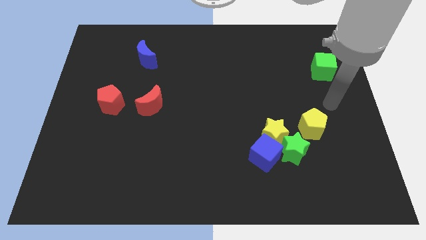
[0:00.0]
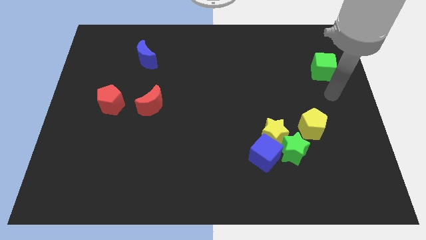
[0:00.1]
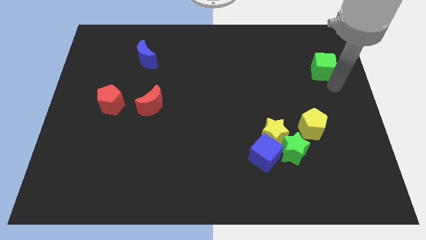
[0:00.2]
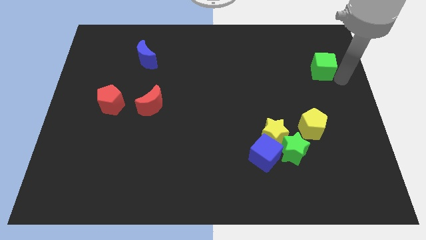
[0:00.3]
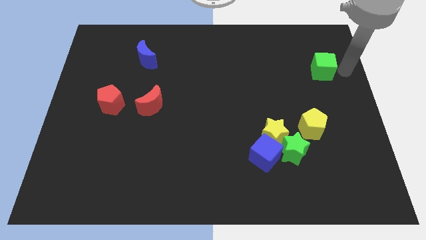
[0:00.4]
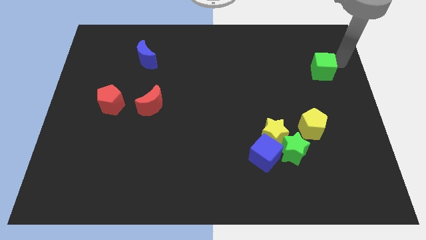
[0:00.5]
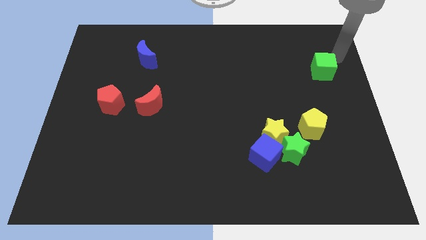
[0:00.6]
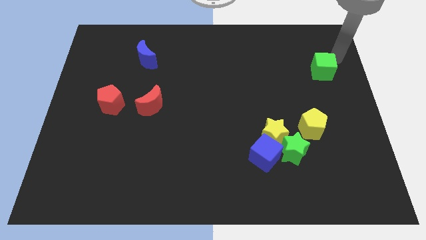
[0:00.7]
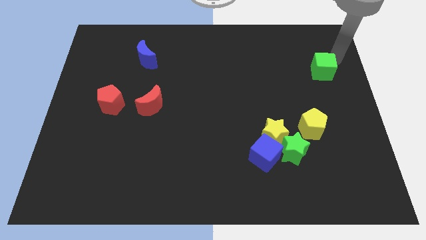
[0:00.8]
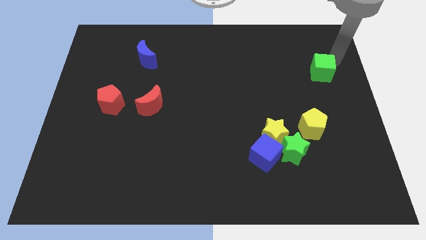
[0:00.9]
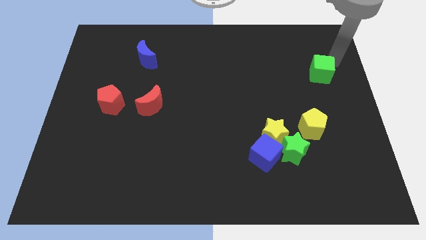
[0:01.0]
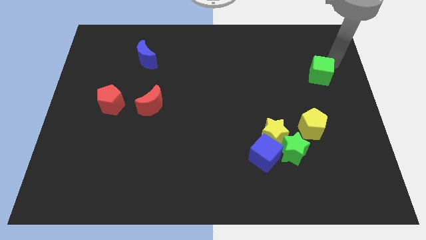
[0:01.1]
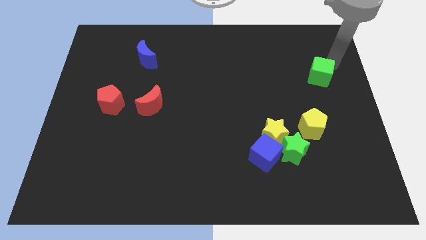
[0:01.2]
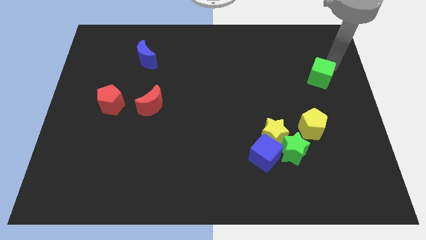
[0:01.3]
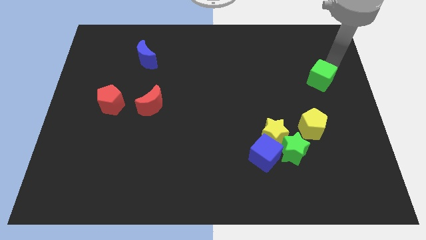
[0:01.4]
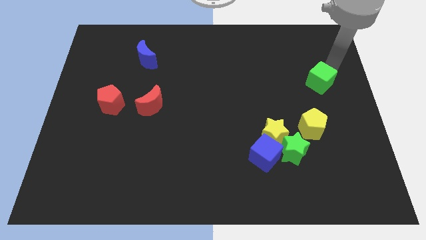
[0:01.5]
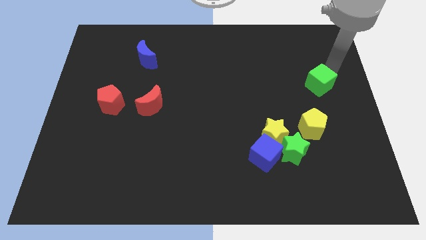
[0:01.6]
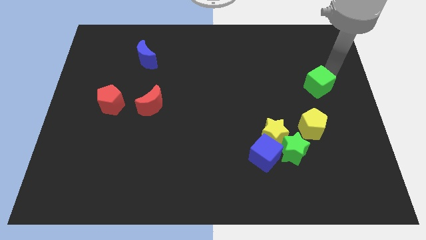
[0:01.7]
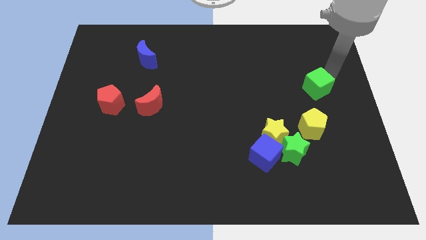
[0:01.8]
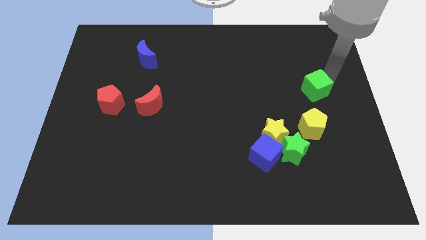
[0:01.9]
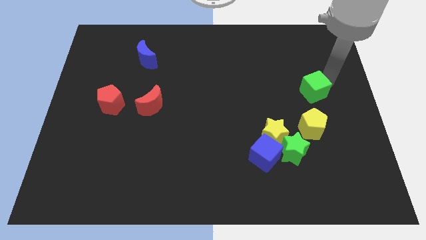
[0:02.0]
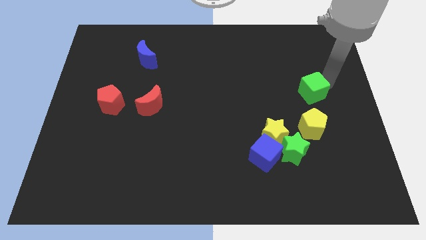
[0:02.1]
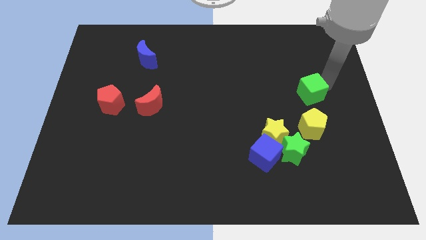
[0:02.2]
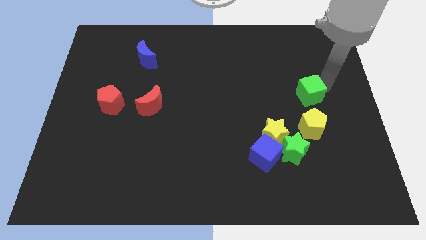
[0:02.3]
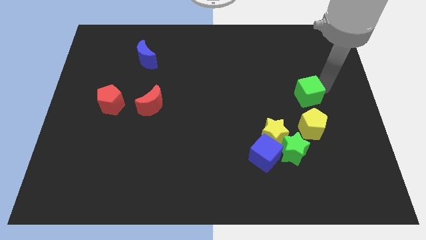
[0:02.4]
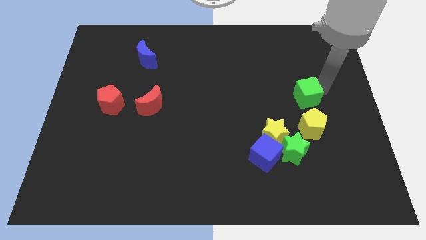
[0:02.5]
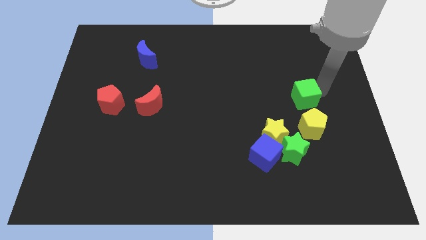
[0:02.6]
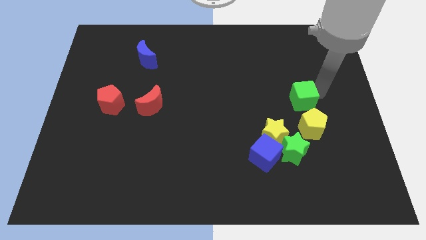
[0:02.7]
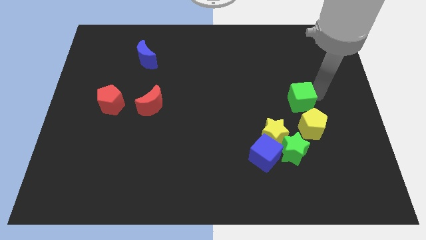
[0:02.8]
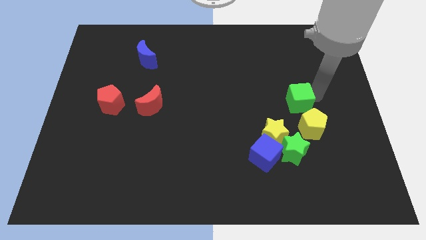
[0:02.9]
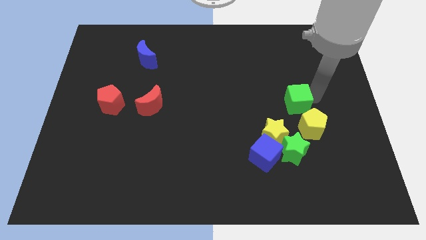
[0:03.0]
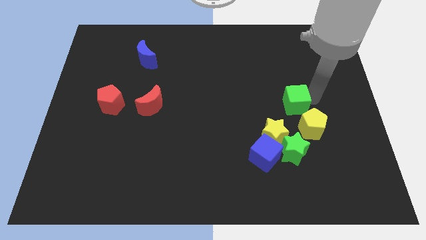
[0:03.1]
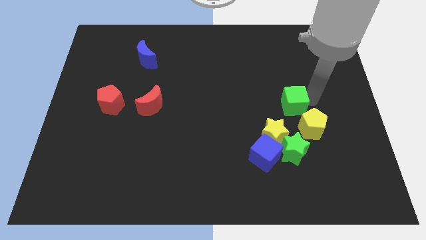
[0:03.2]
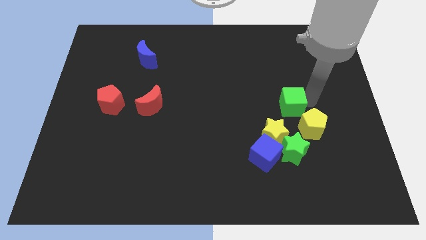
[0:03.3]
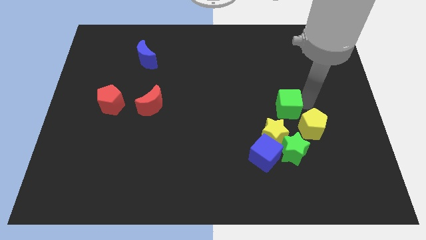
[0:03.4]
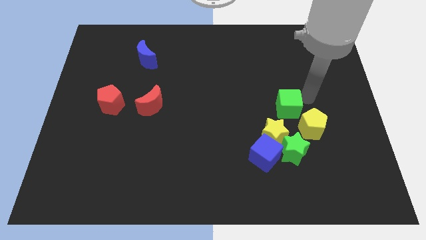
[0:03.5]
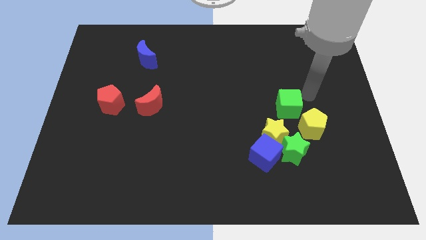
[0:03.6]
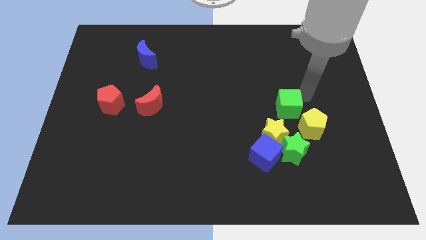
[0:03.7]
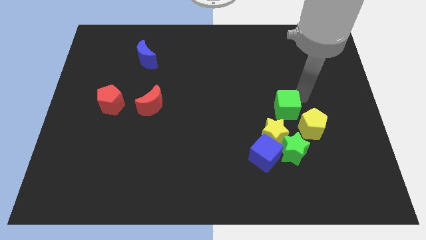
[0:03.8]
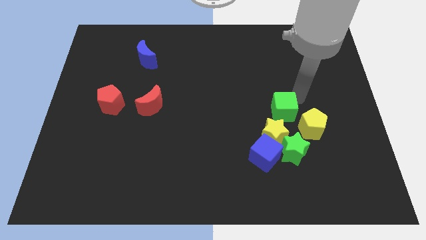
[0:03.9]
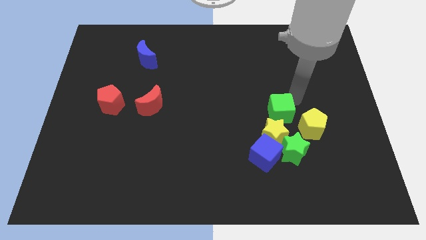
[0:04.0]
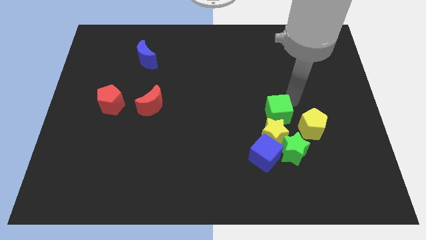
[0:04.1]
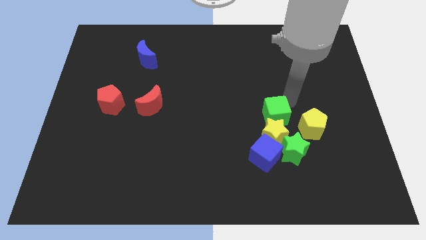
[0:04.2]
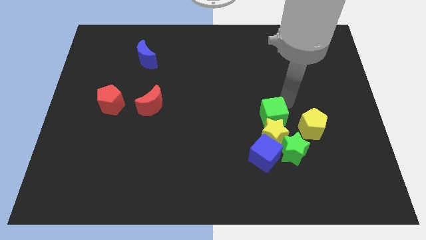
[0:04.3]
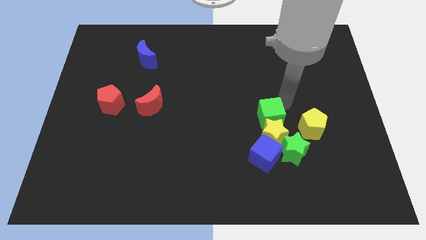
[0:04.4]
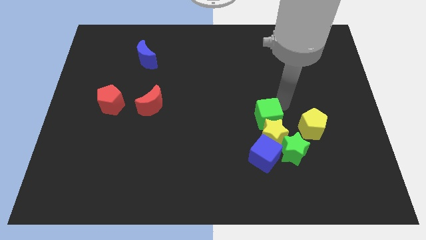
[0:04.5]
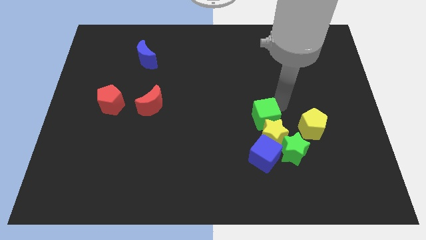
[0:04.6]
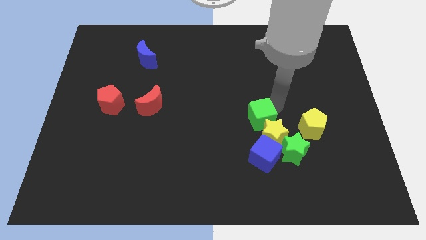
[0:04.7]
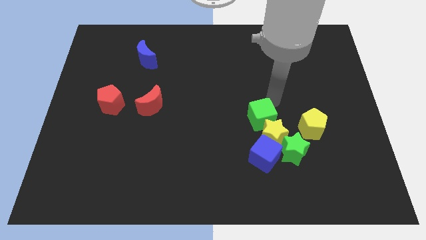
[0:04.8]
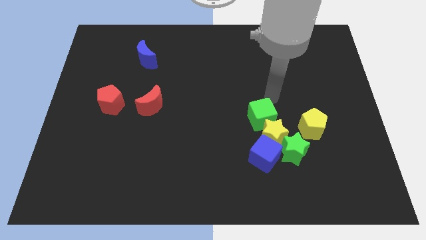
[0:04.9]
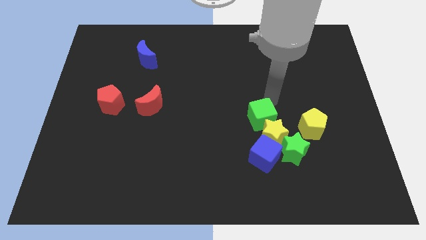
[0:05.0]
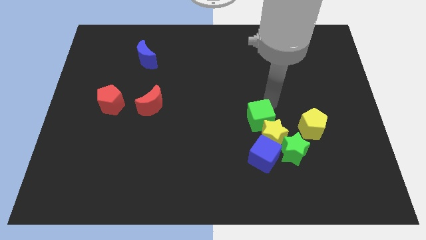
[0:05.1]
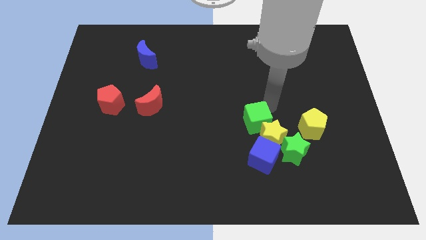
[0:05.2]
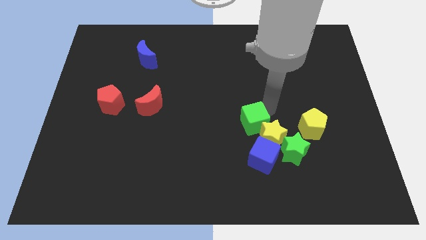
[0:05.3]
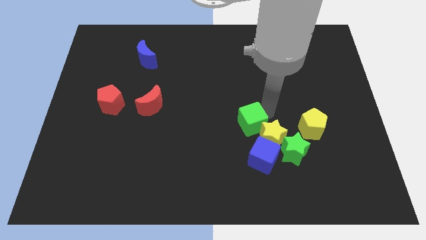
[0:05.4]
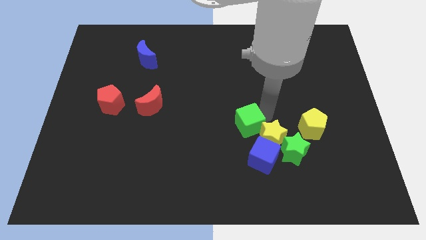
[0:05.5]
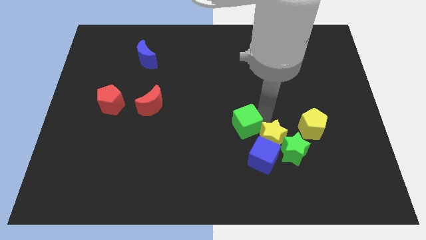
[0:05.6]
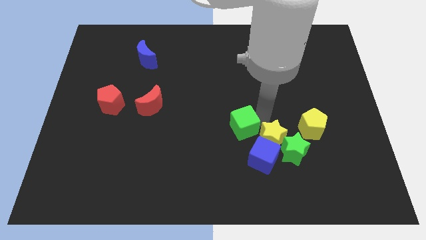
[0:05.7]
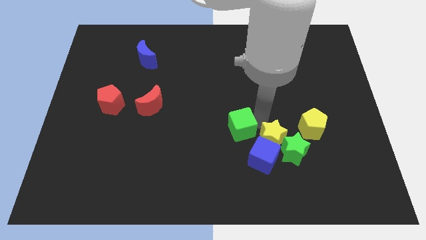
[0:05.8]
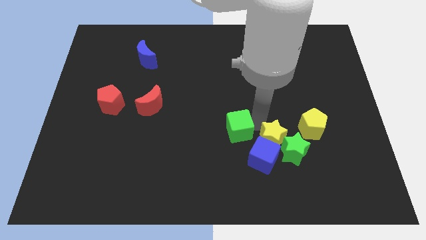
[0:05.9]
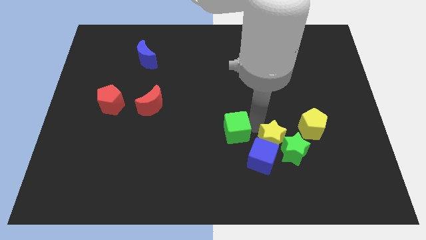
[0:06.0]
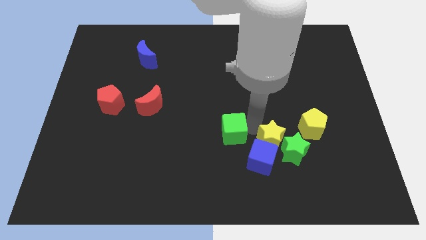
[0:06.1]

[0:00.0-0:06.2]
move the green cube just left of the green star

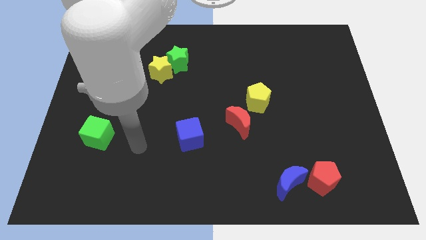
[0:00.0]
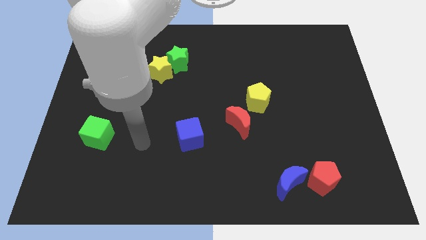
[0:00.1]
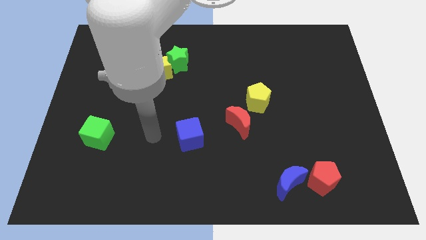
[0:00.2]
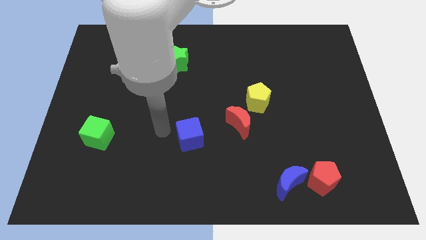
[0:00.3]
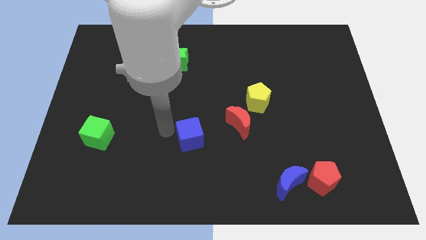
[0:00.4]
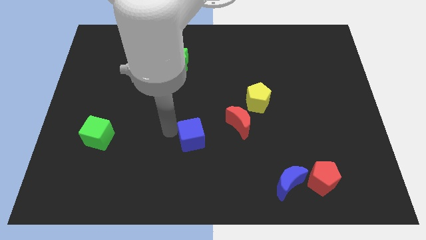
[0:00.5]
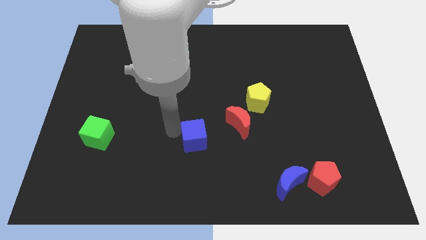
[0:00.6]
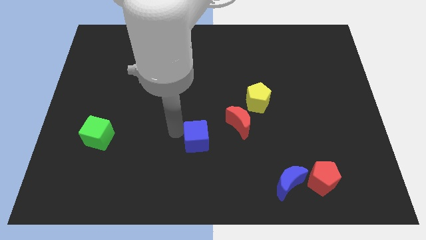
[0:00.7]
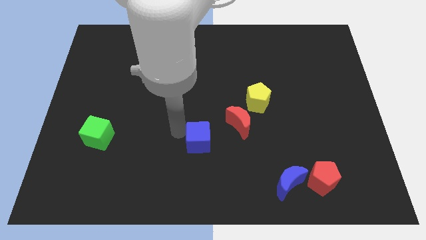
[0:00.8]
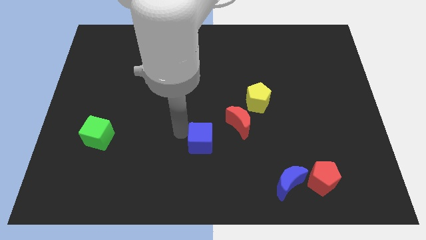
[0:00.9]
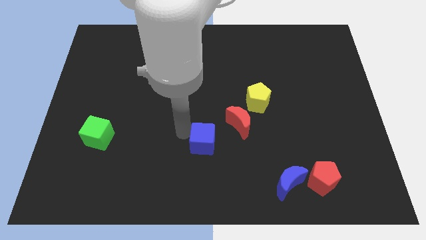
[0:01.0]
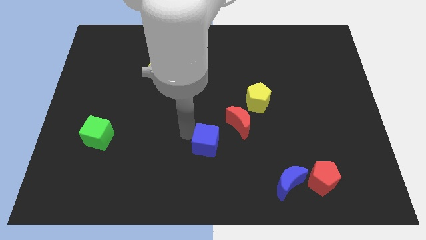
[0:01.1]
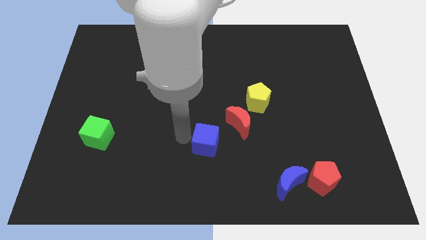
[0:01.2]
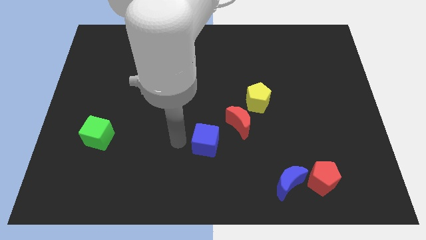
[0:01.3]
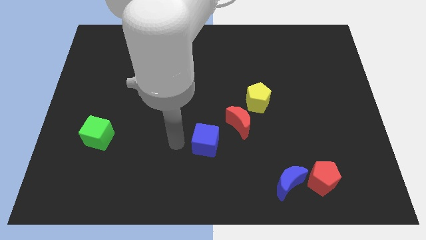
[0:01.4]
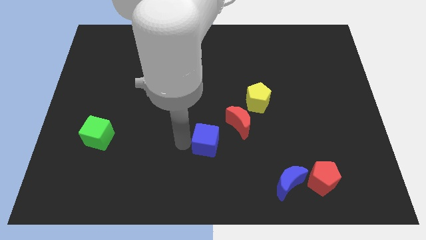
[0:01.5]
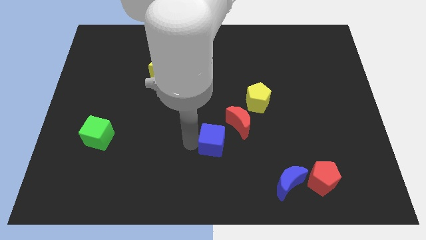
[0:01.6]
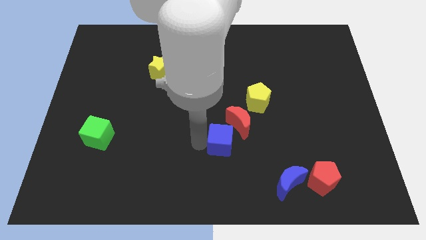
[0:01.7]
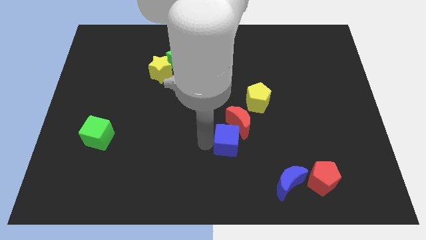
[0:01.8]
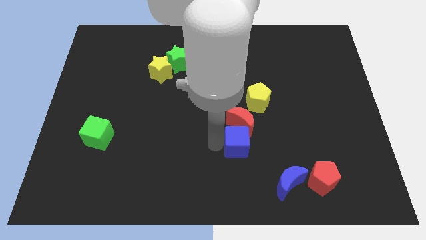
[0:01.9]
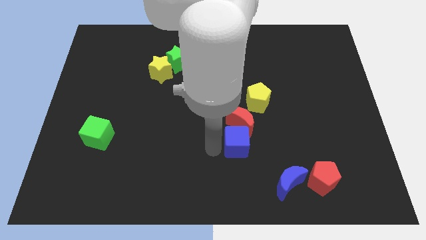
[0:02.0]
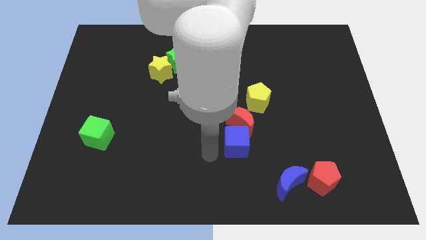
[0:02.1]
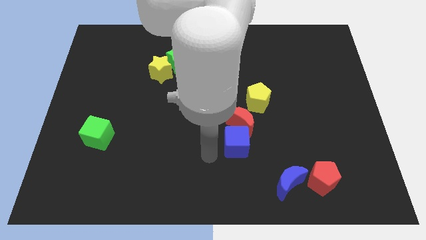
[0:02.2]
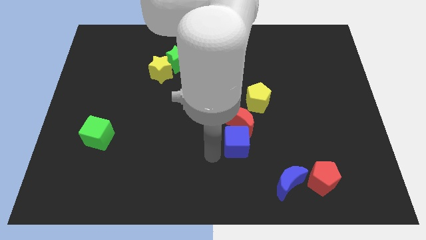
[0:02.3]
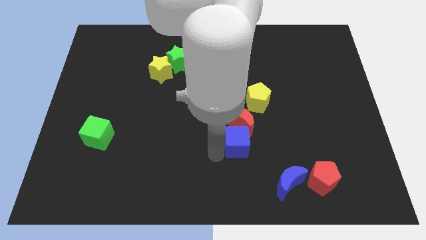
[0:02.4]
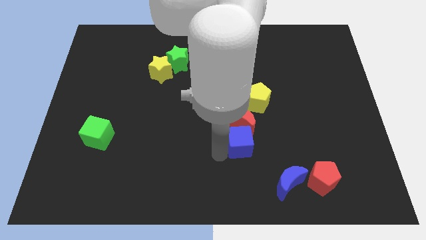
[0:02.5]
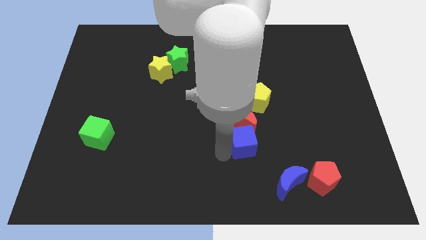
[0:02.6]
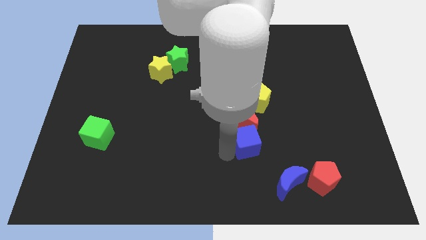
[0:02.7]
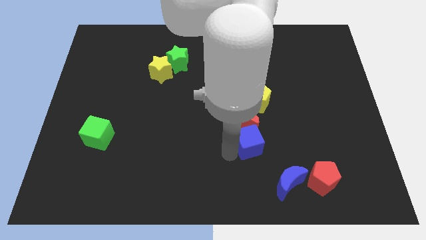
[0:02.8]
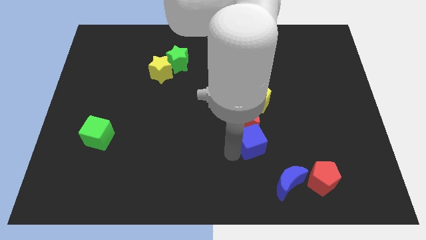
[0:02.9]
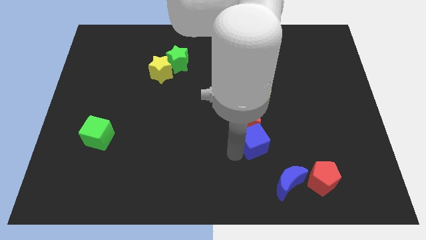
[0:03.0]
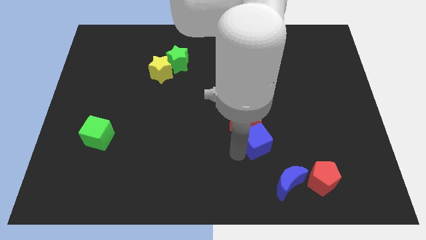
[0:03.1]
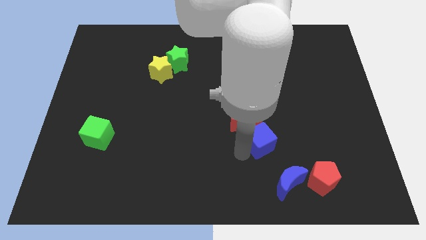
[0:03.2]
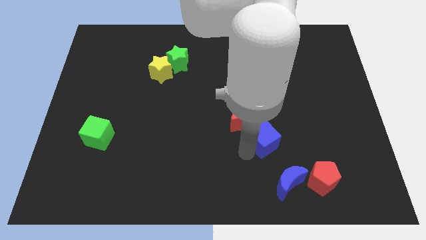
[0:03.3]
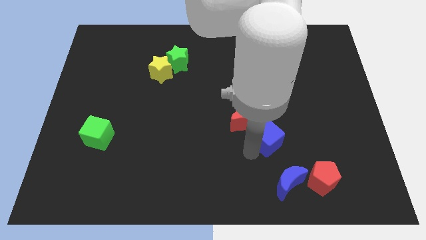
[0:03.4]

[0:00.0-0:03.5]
put the blue cube to the right side of the red moon
